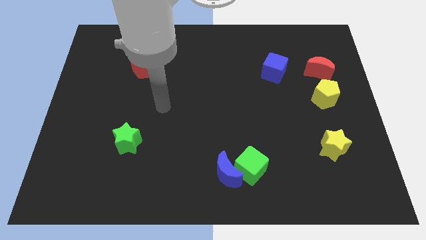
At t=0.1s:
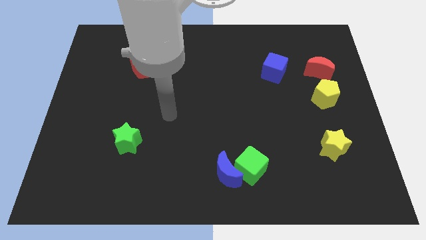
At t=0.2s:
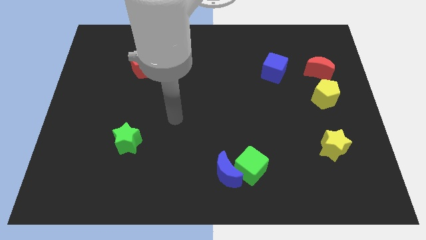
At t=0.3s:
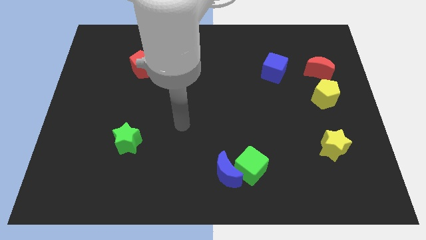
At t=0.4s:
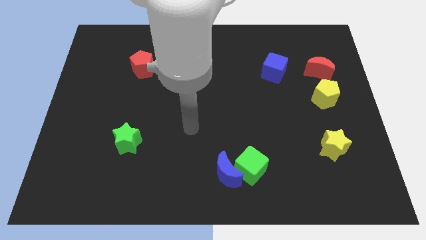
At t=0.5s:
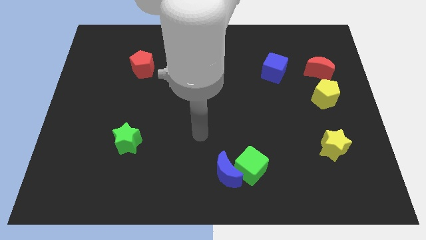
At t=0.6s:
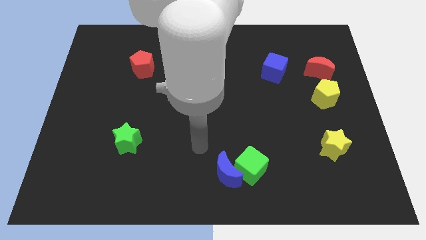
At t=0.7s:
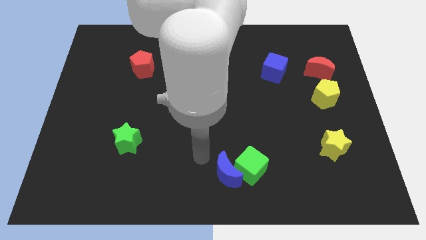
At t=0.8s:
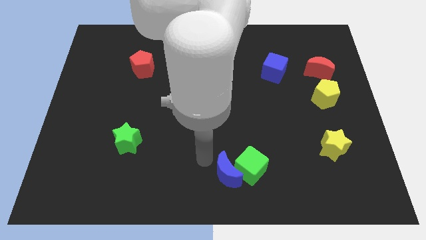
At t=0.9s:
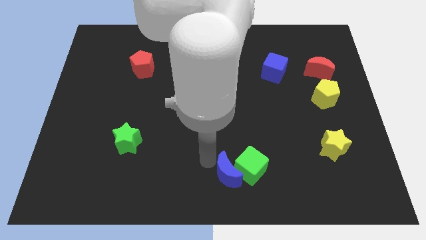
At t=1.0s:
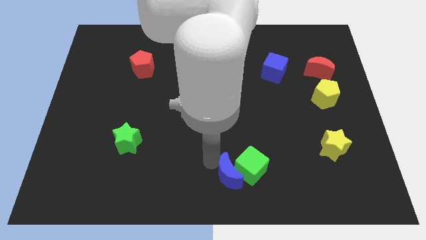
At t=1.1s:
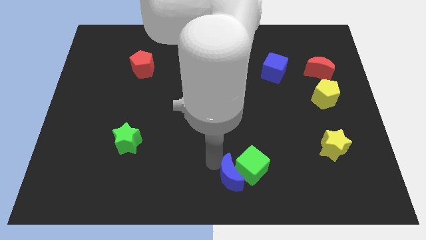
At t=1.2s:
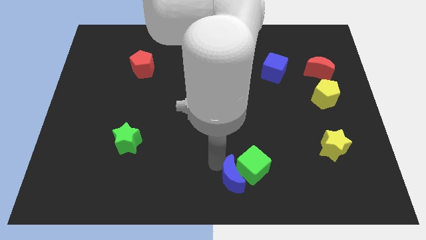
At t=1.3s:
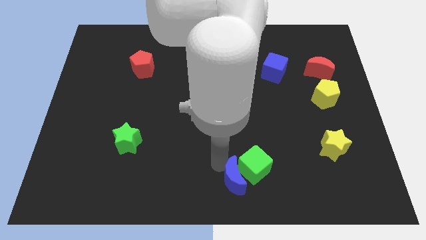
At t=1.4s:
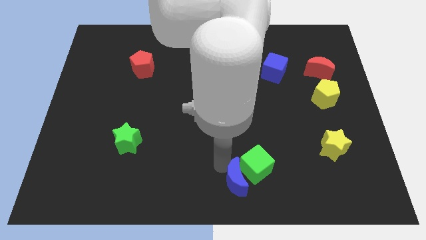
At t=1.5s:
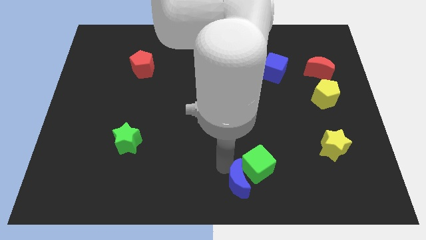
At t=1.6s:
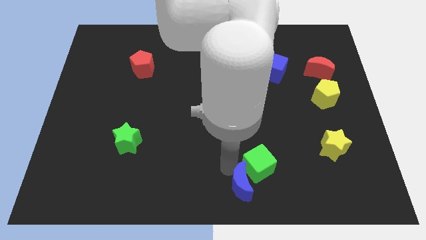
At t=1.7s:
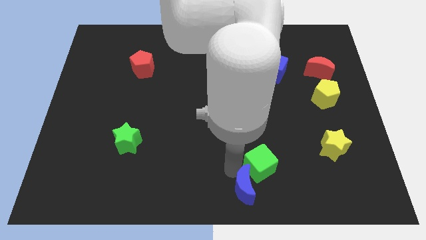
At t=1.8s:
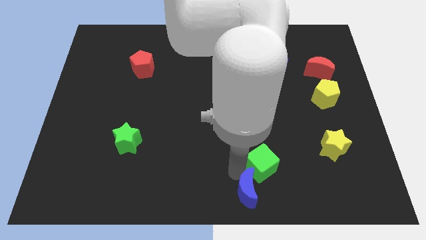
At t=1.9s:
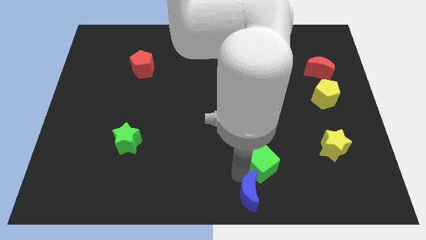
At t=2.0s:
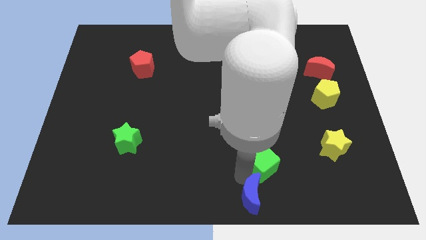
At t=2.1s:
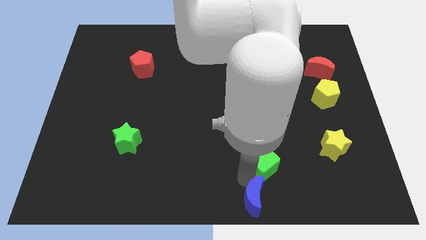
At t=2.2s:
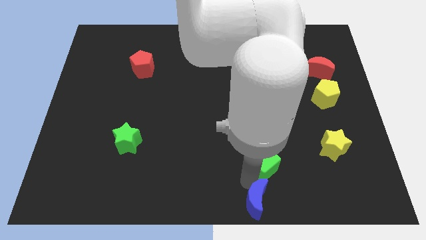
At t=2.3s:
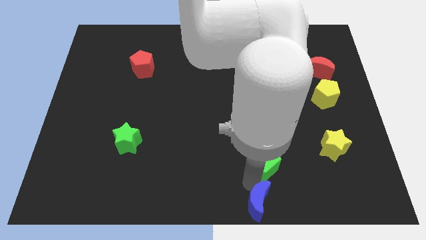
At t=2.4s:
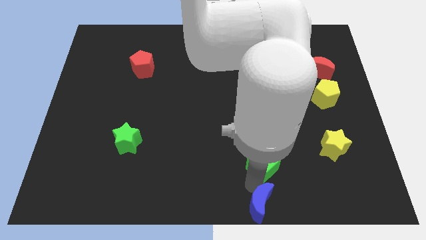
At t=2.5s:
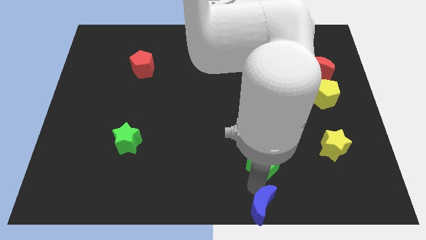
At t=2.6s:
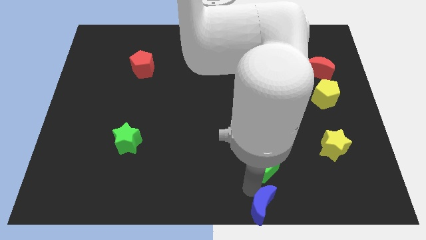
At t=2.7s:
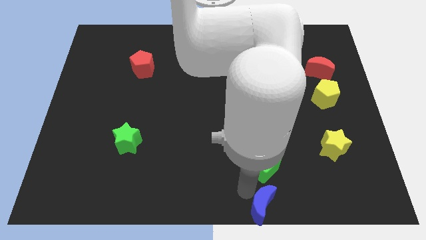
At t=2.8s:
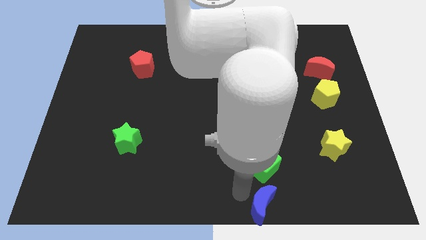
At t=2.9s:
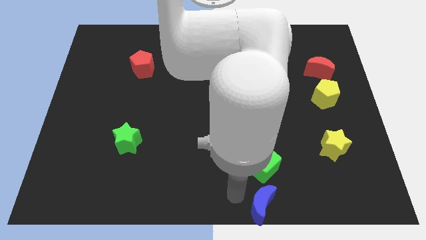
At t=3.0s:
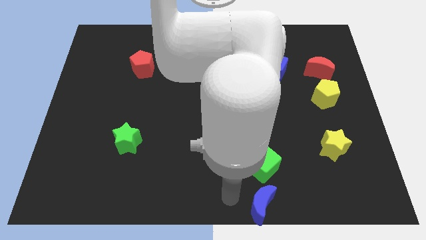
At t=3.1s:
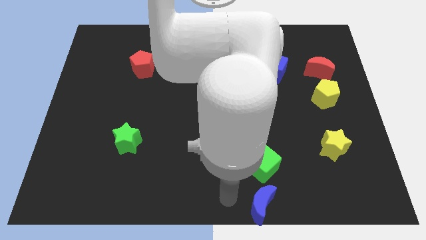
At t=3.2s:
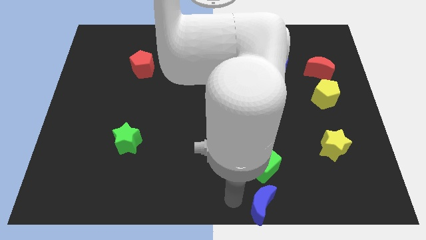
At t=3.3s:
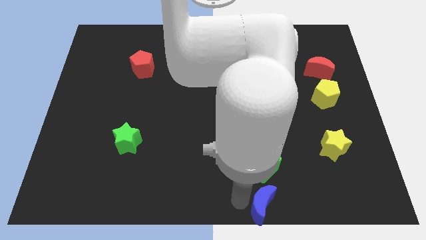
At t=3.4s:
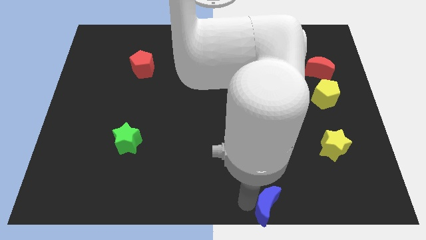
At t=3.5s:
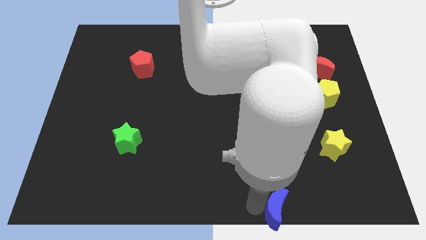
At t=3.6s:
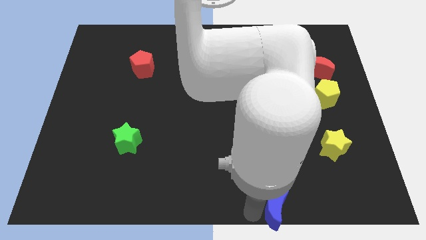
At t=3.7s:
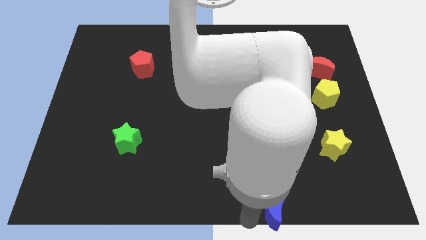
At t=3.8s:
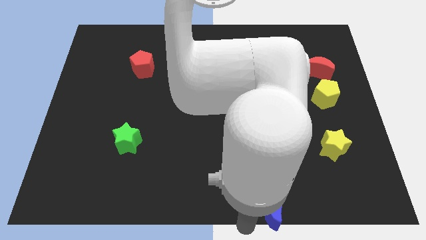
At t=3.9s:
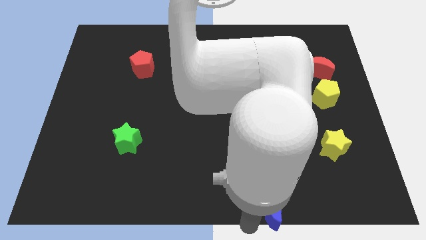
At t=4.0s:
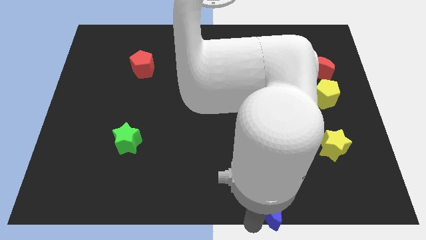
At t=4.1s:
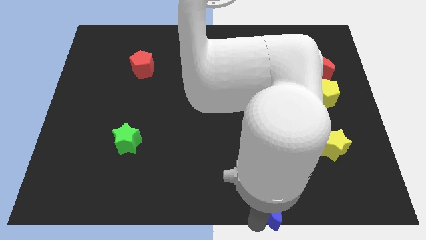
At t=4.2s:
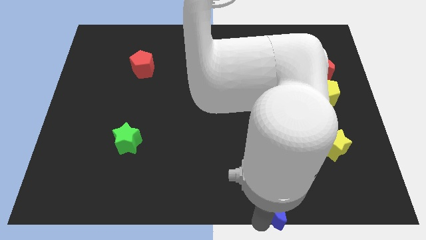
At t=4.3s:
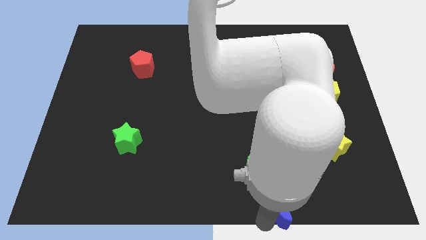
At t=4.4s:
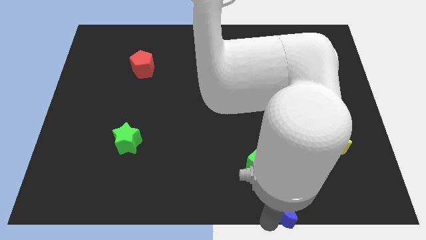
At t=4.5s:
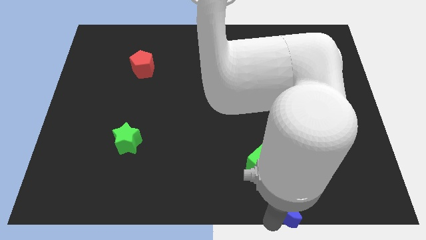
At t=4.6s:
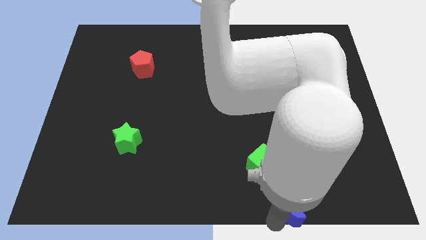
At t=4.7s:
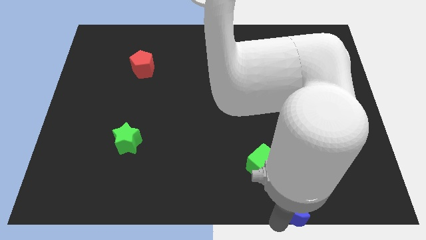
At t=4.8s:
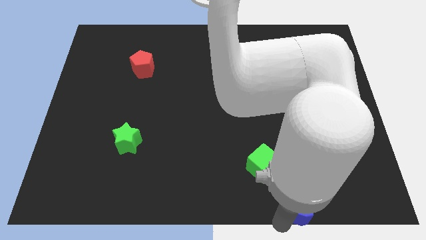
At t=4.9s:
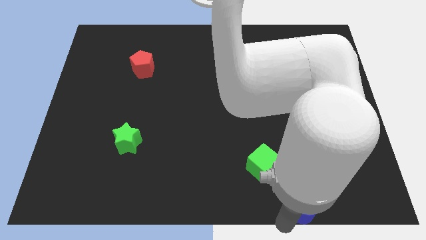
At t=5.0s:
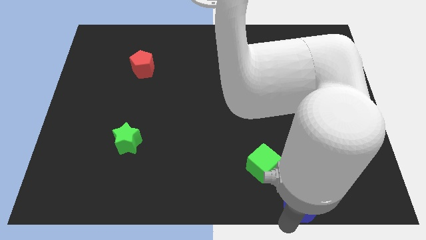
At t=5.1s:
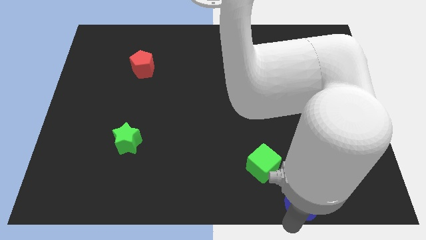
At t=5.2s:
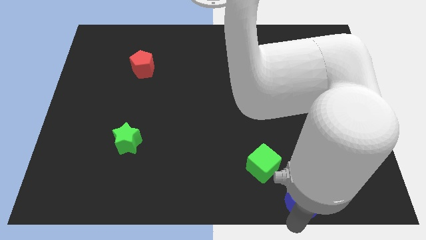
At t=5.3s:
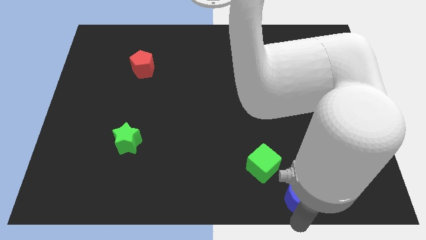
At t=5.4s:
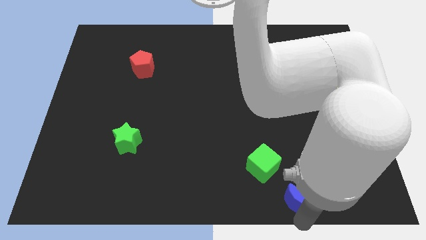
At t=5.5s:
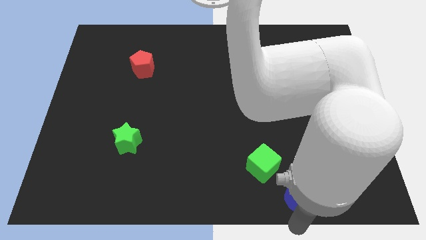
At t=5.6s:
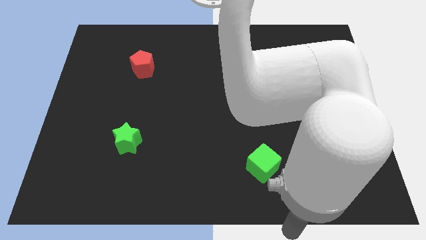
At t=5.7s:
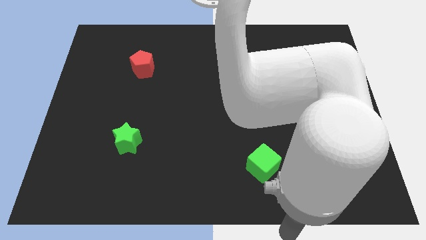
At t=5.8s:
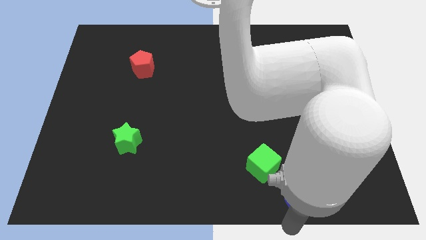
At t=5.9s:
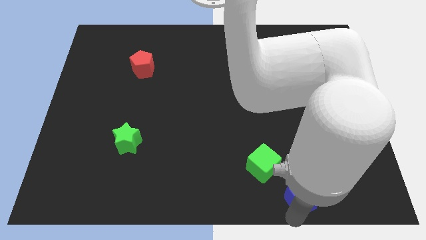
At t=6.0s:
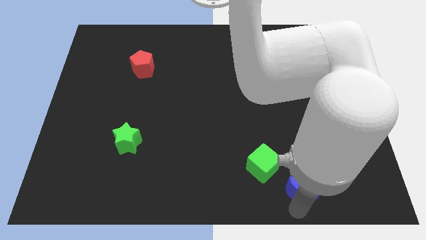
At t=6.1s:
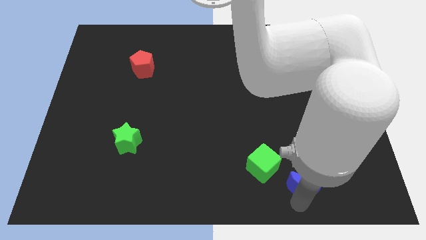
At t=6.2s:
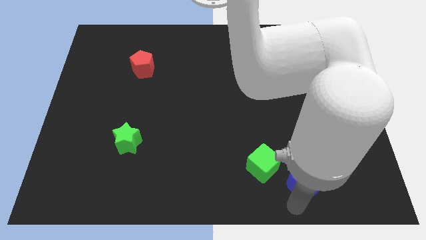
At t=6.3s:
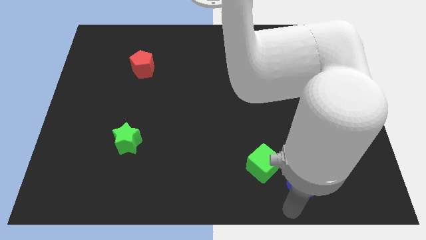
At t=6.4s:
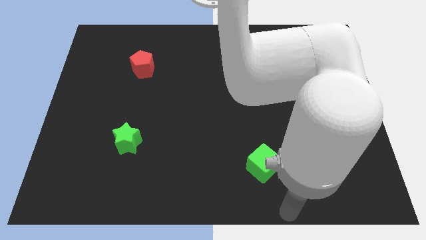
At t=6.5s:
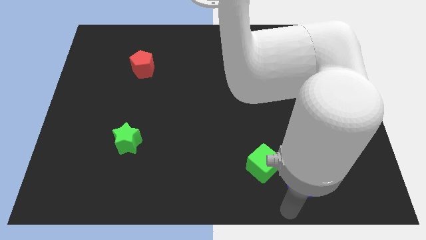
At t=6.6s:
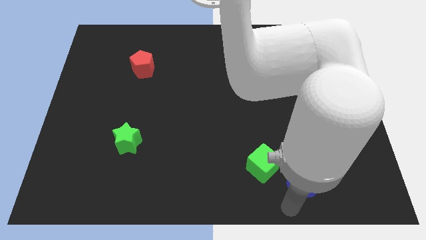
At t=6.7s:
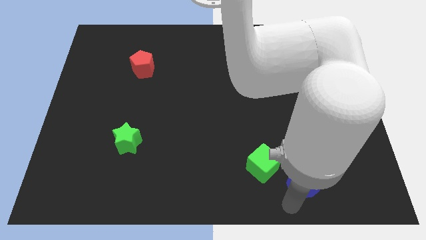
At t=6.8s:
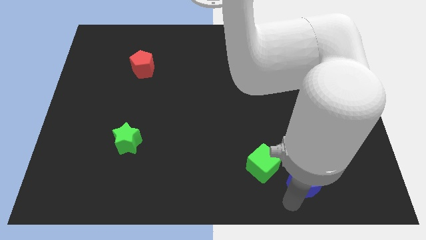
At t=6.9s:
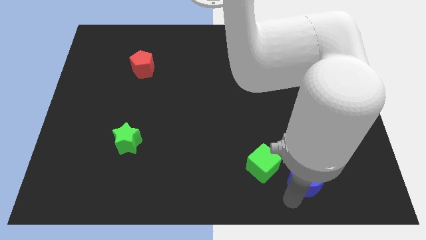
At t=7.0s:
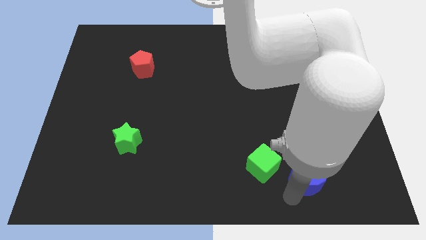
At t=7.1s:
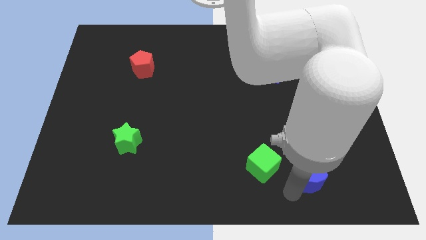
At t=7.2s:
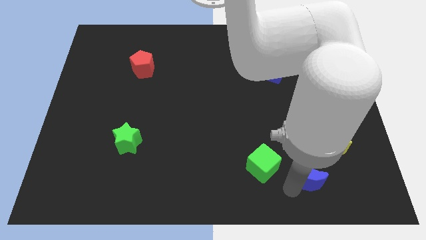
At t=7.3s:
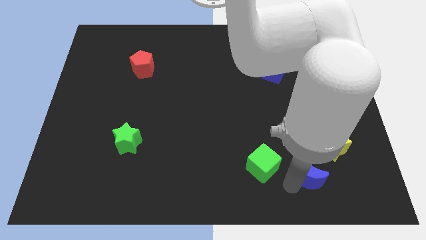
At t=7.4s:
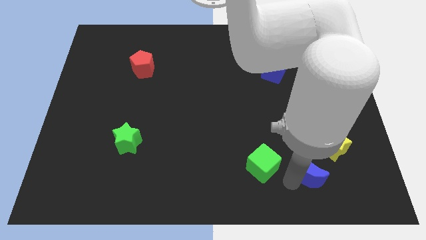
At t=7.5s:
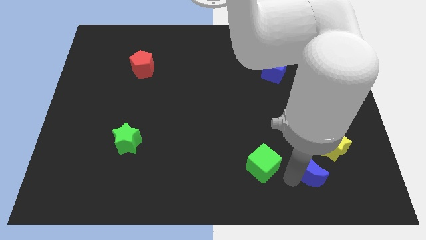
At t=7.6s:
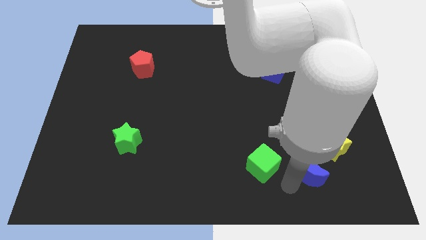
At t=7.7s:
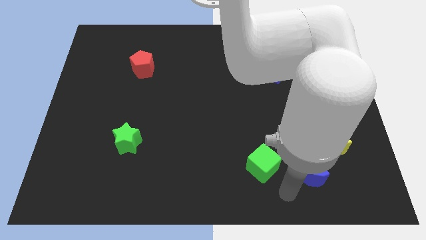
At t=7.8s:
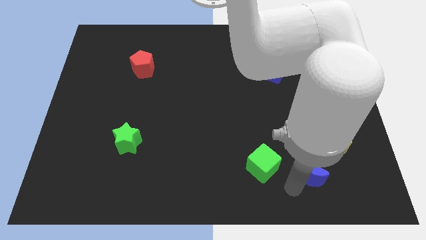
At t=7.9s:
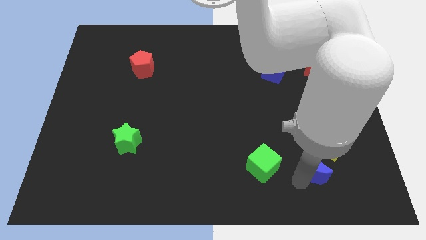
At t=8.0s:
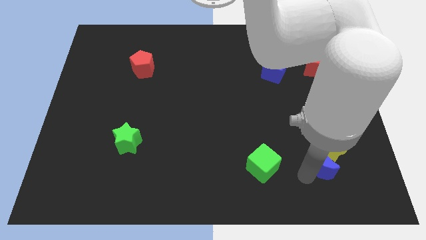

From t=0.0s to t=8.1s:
move the blue moon close to the yellow star
